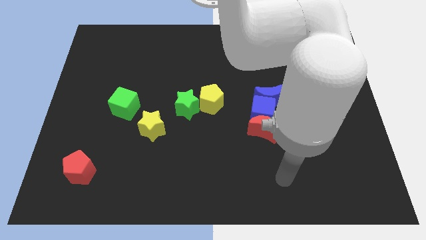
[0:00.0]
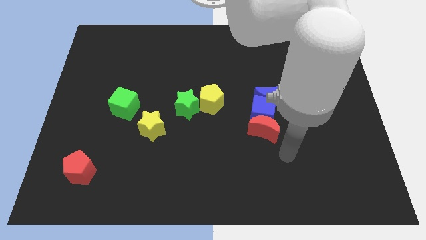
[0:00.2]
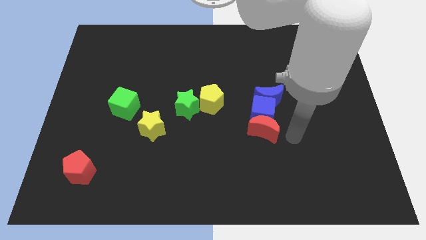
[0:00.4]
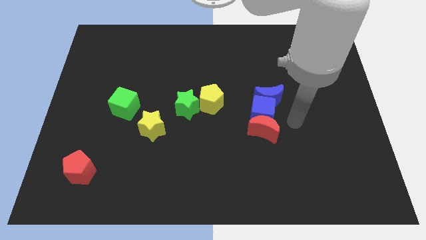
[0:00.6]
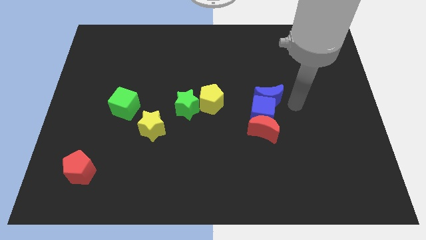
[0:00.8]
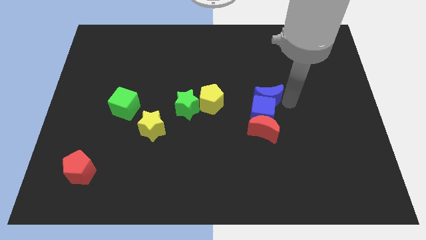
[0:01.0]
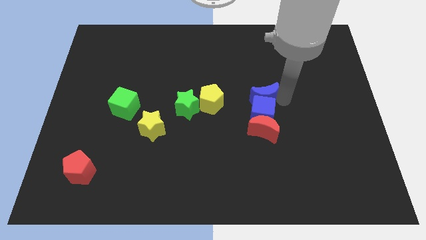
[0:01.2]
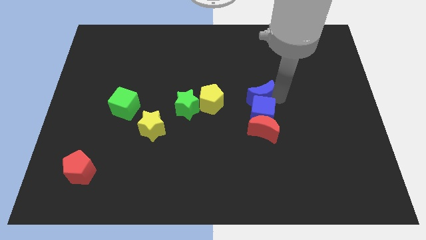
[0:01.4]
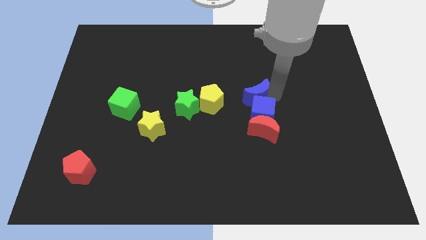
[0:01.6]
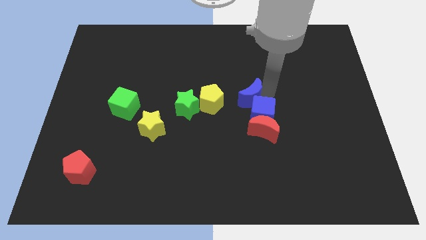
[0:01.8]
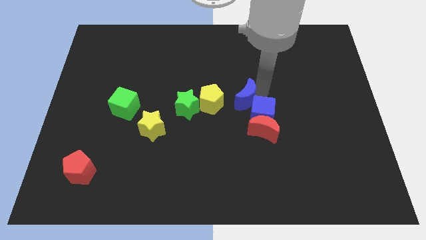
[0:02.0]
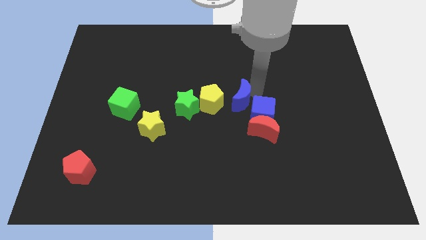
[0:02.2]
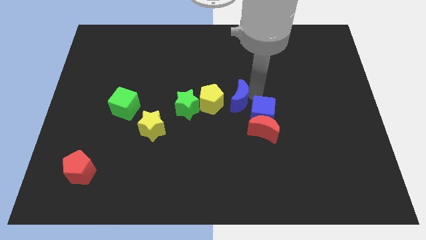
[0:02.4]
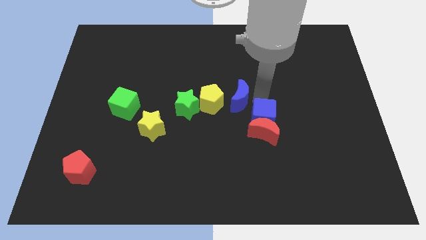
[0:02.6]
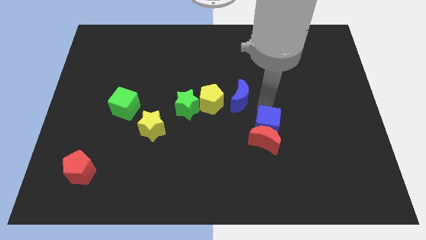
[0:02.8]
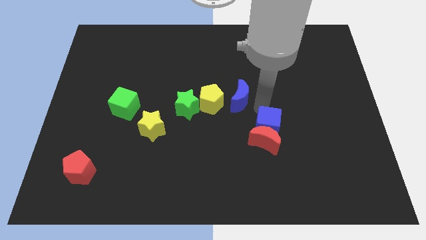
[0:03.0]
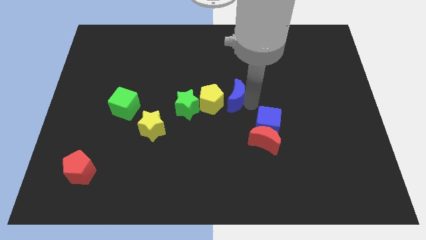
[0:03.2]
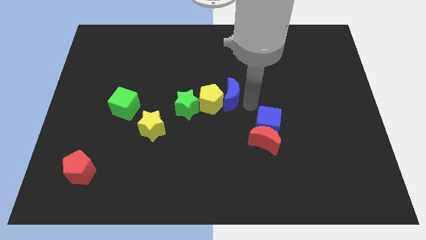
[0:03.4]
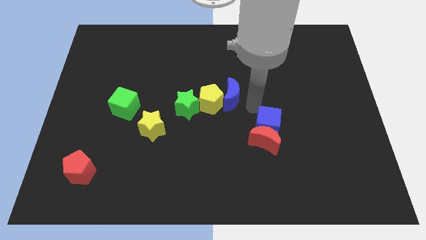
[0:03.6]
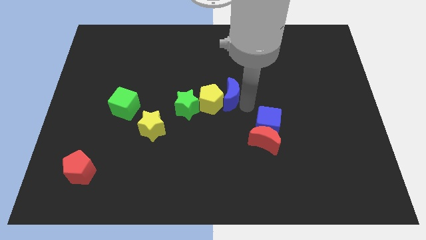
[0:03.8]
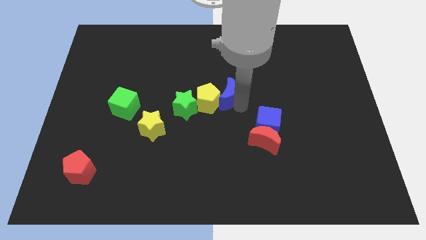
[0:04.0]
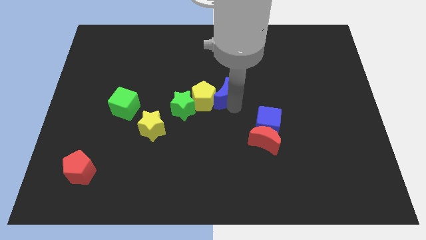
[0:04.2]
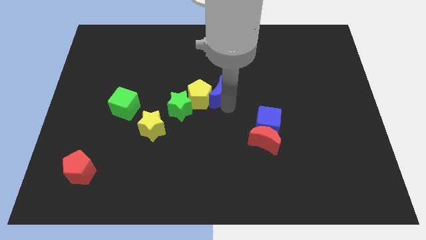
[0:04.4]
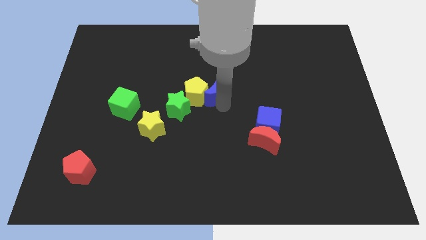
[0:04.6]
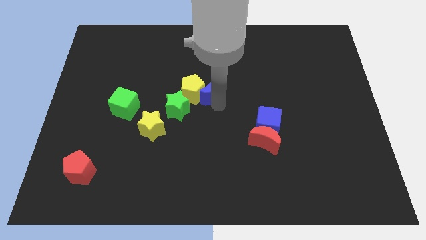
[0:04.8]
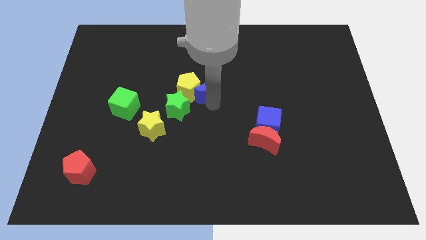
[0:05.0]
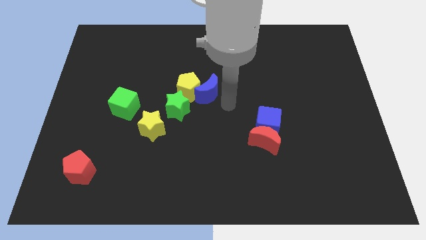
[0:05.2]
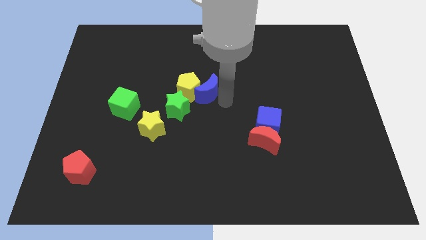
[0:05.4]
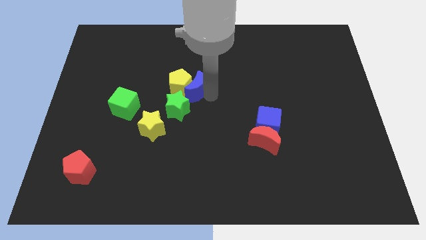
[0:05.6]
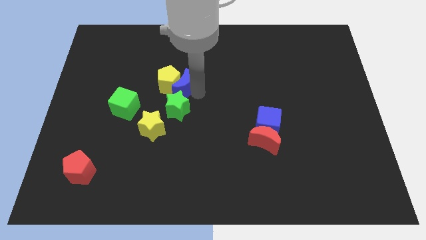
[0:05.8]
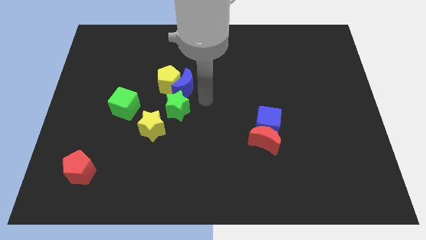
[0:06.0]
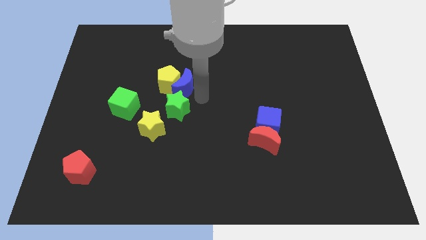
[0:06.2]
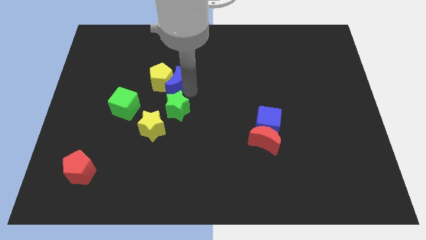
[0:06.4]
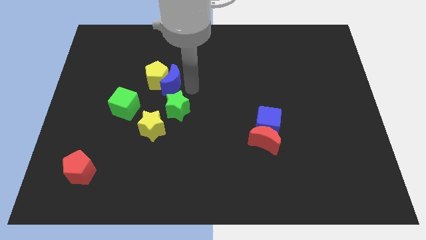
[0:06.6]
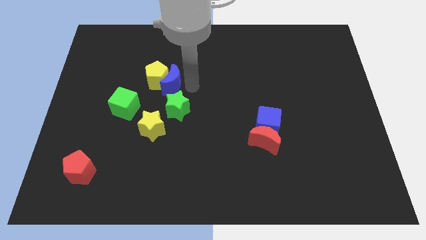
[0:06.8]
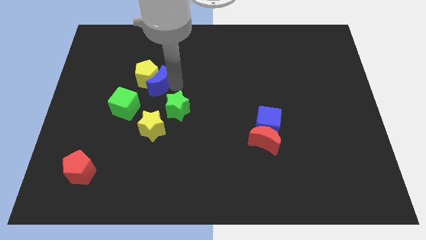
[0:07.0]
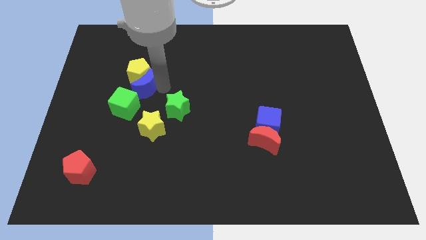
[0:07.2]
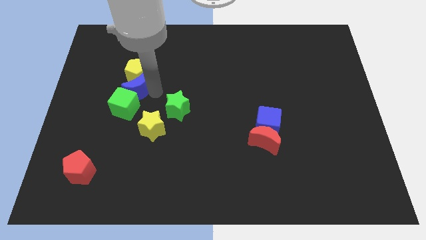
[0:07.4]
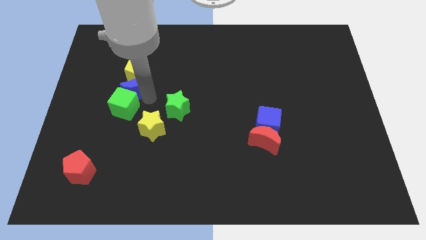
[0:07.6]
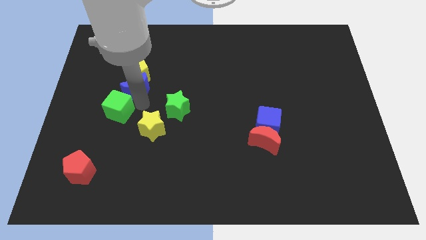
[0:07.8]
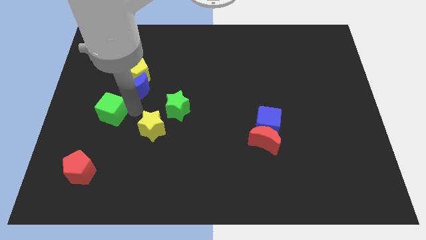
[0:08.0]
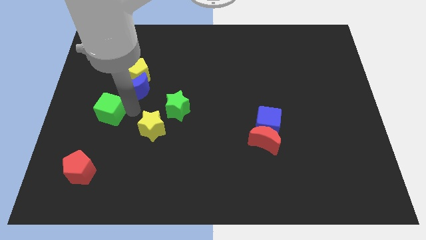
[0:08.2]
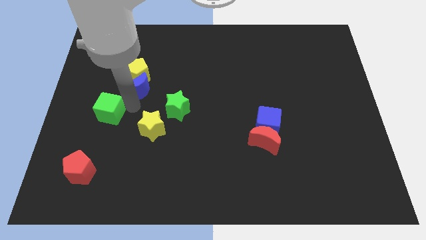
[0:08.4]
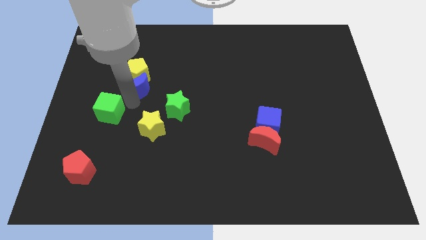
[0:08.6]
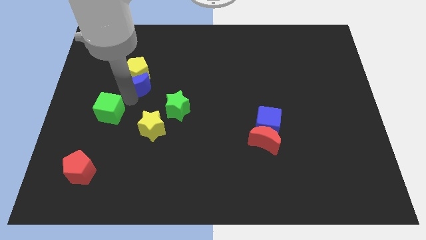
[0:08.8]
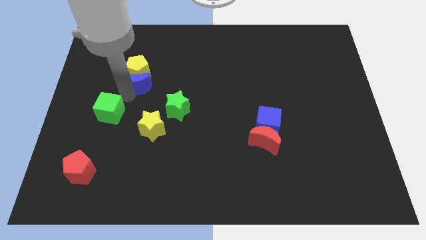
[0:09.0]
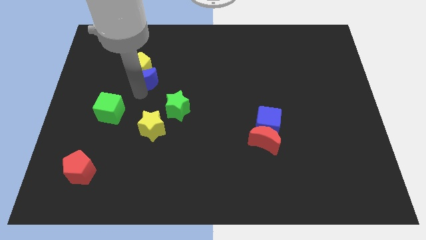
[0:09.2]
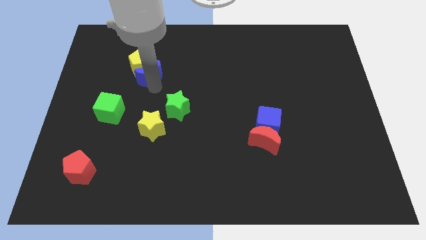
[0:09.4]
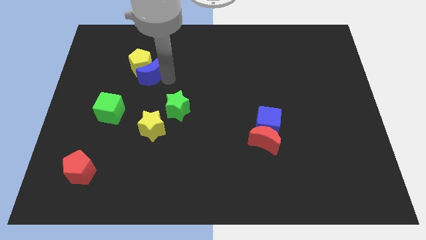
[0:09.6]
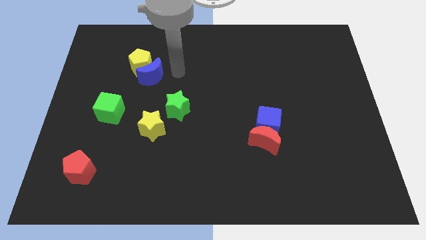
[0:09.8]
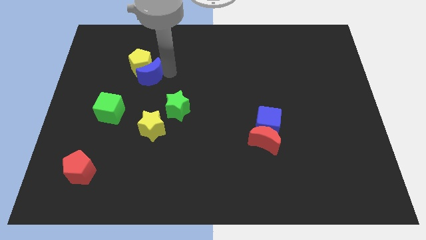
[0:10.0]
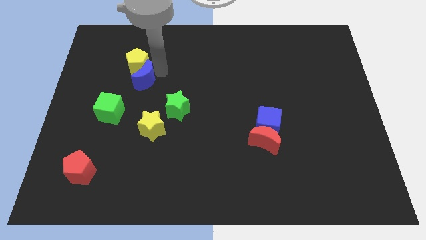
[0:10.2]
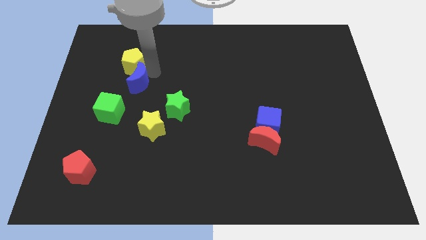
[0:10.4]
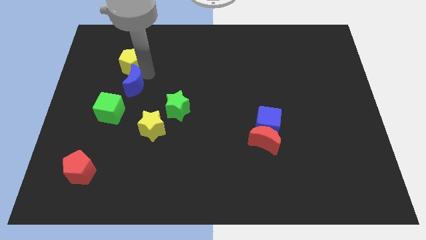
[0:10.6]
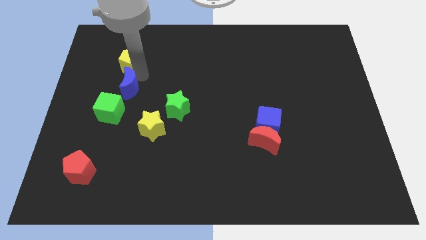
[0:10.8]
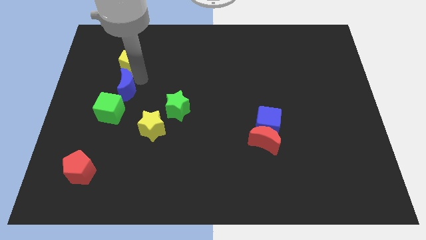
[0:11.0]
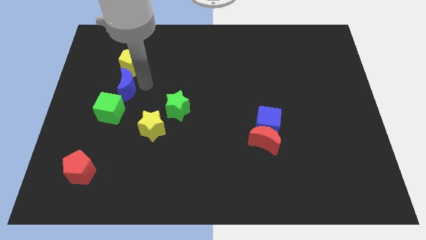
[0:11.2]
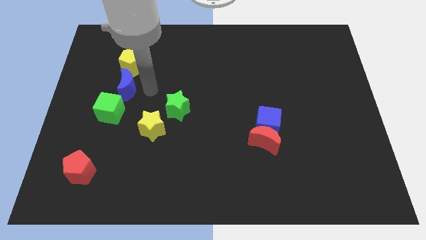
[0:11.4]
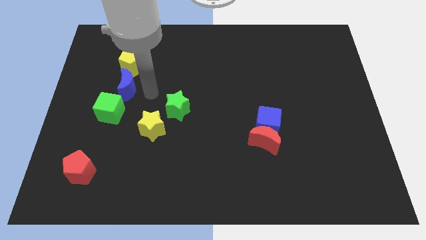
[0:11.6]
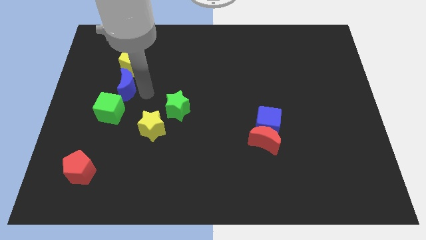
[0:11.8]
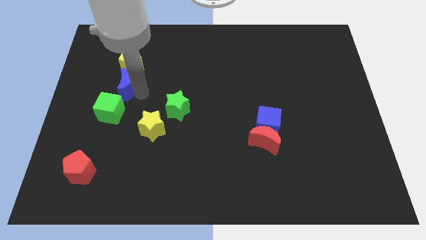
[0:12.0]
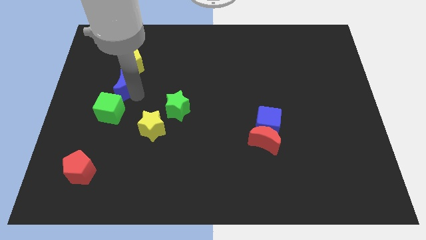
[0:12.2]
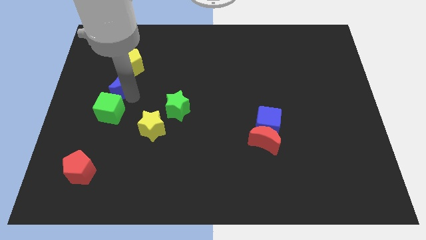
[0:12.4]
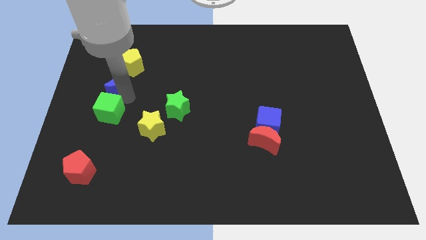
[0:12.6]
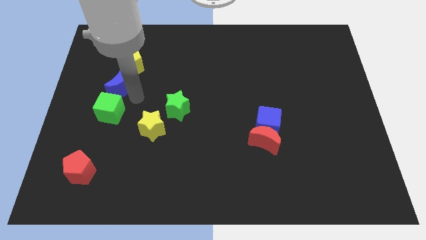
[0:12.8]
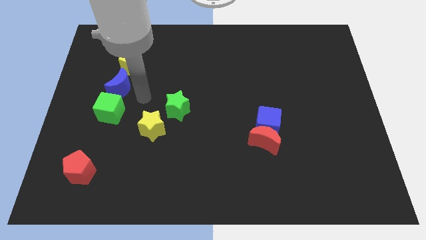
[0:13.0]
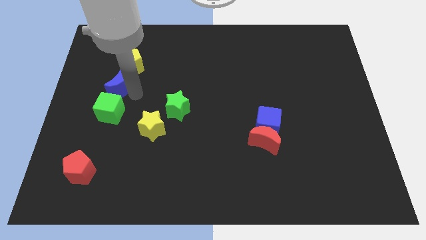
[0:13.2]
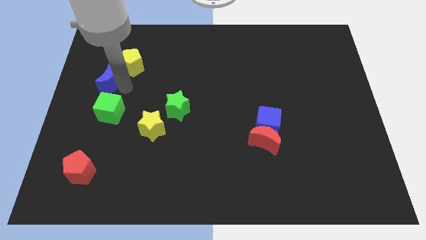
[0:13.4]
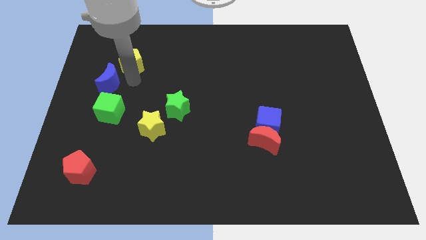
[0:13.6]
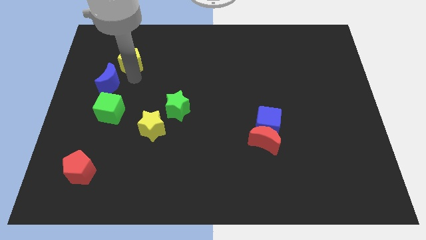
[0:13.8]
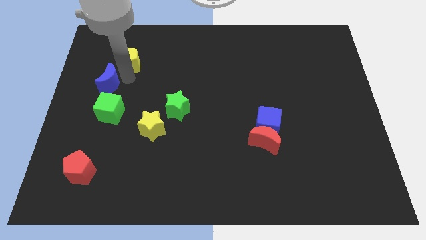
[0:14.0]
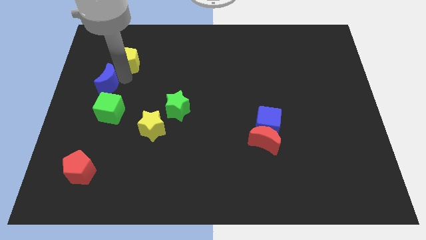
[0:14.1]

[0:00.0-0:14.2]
move the blue moon to the left side
